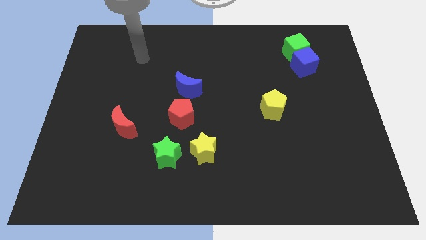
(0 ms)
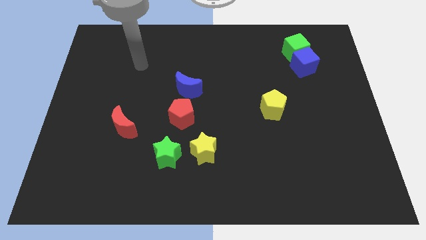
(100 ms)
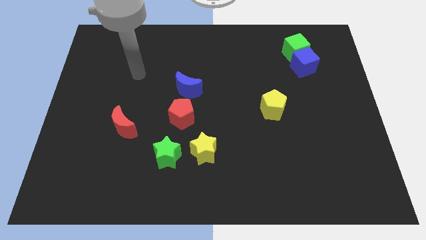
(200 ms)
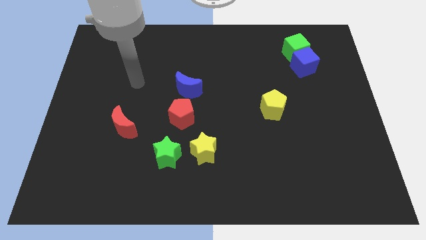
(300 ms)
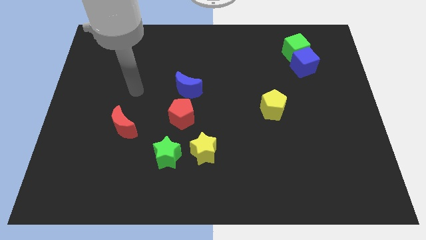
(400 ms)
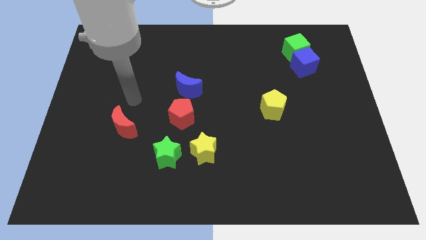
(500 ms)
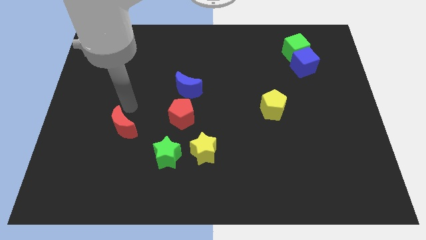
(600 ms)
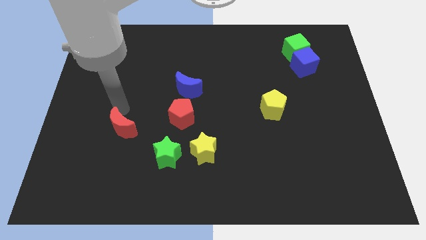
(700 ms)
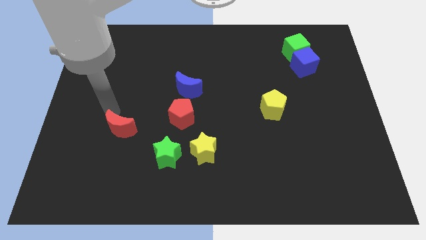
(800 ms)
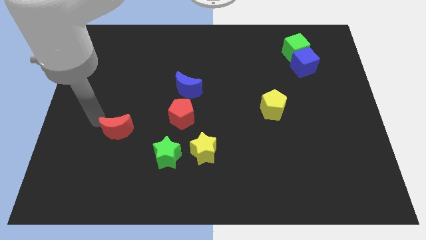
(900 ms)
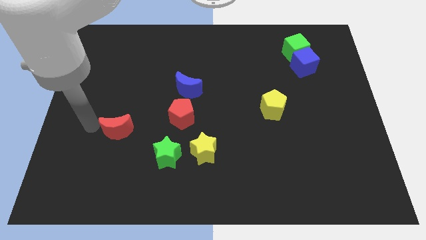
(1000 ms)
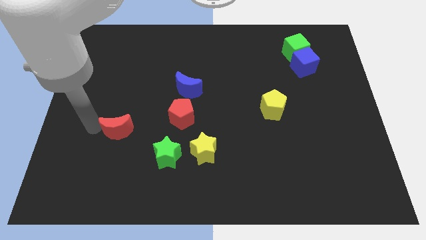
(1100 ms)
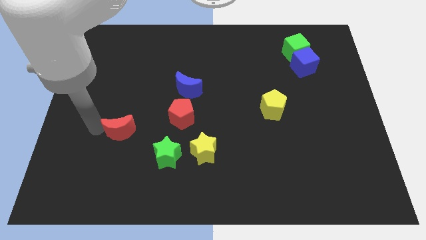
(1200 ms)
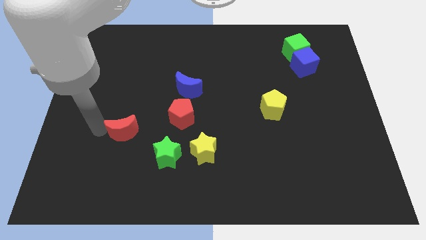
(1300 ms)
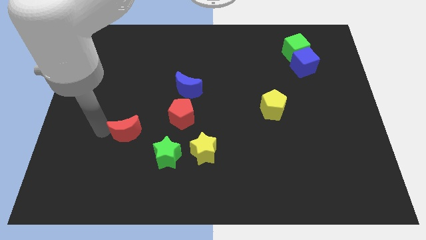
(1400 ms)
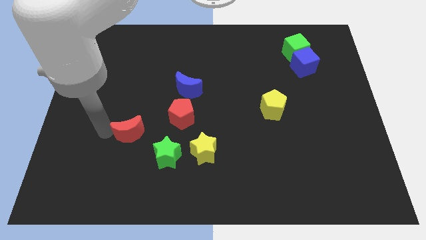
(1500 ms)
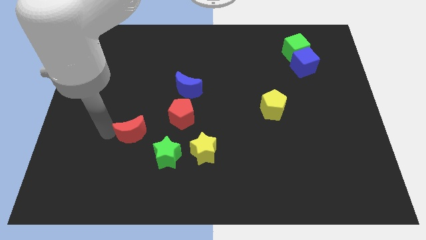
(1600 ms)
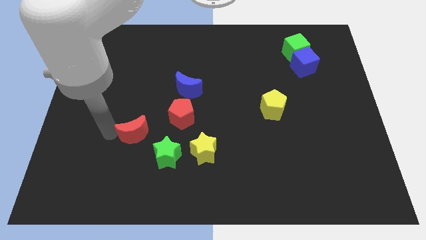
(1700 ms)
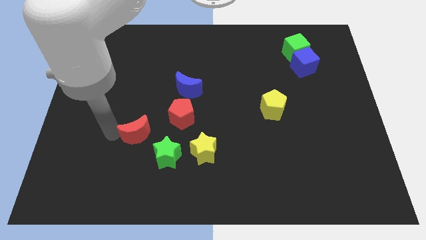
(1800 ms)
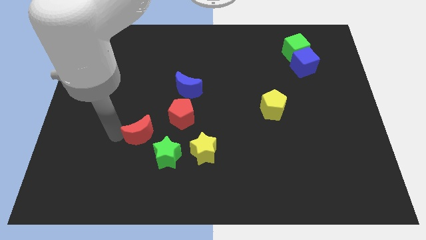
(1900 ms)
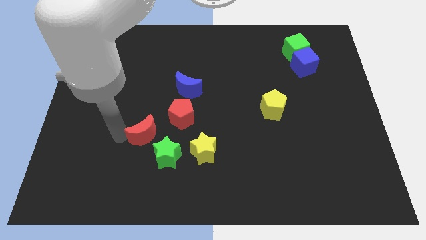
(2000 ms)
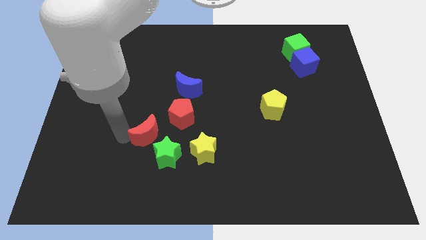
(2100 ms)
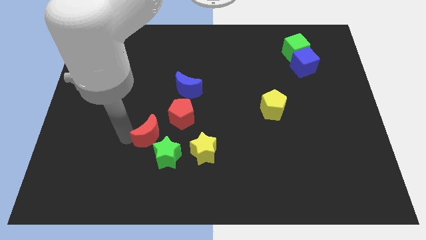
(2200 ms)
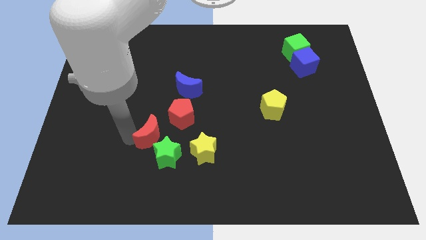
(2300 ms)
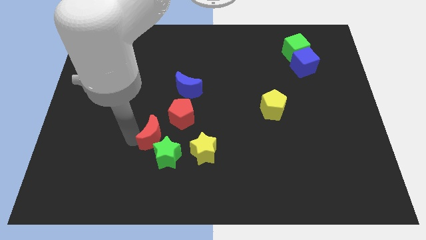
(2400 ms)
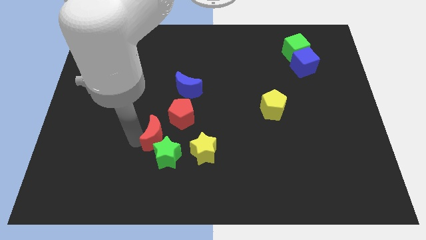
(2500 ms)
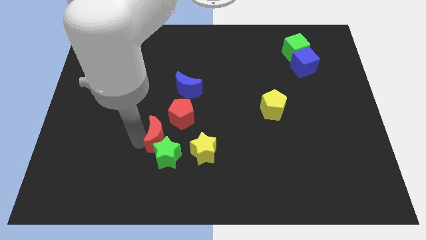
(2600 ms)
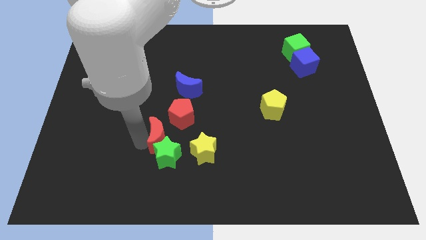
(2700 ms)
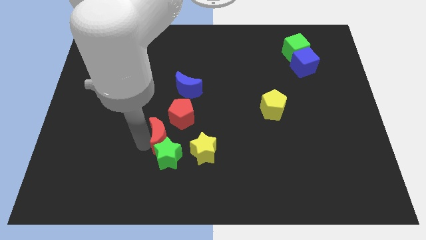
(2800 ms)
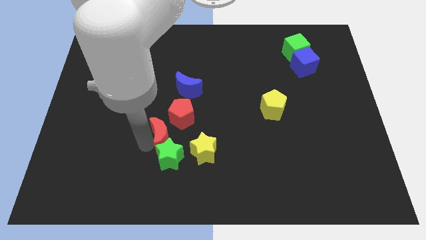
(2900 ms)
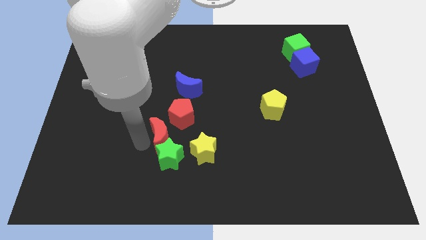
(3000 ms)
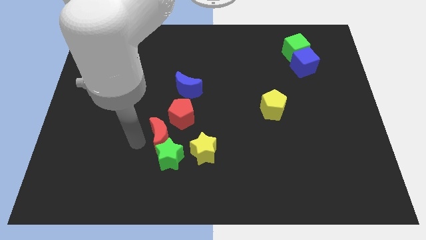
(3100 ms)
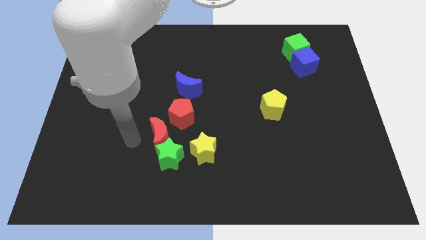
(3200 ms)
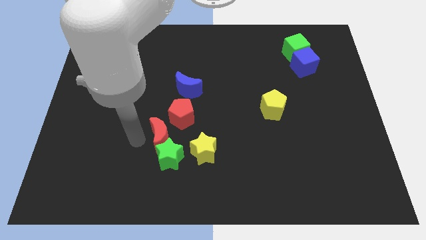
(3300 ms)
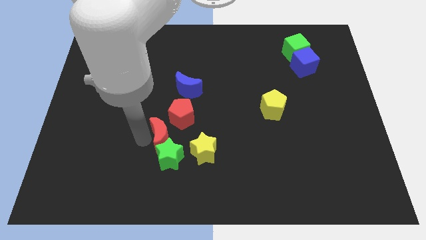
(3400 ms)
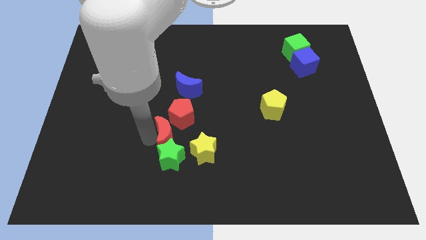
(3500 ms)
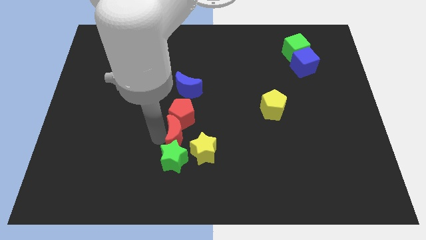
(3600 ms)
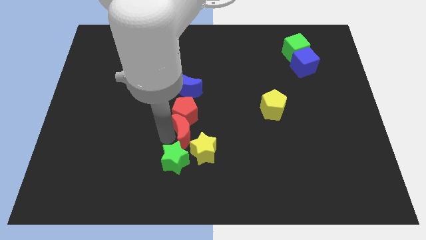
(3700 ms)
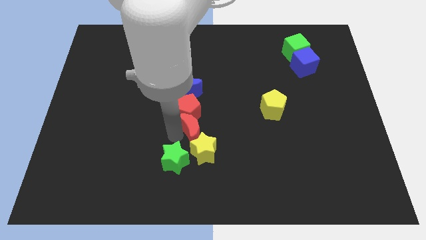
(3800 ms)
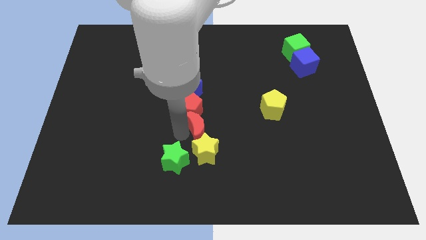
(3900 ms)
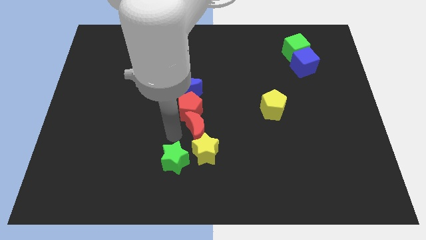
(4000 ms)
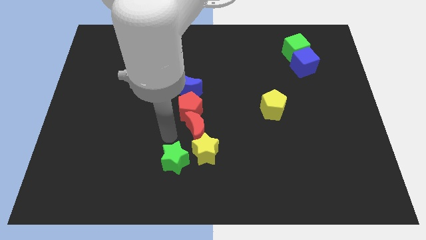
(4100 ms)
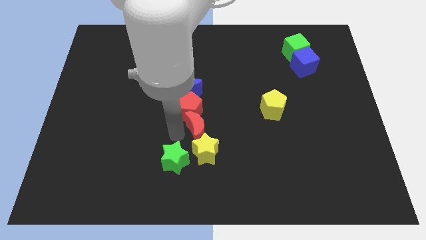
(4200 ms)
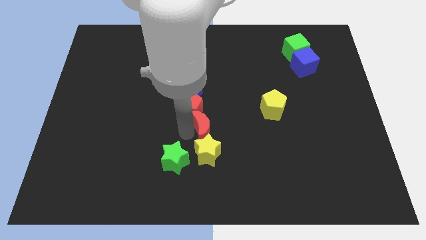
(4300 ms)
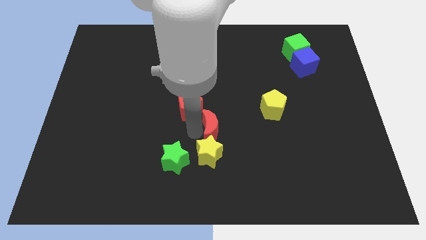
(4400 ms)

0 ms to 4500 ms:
move the red moon to the right

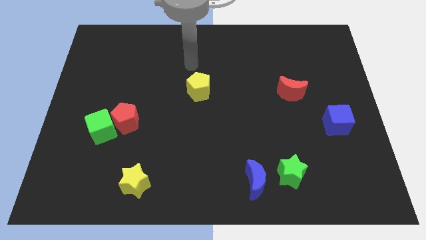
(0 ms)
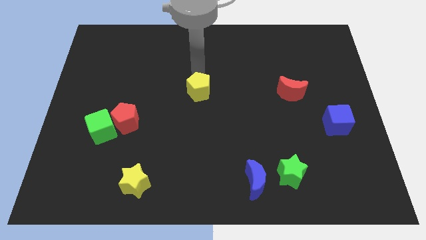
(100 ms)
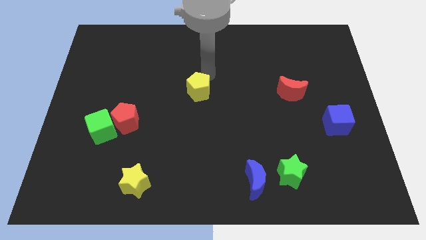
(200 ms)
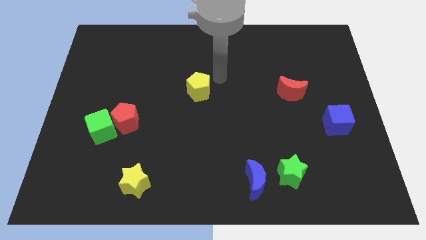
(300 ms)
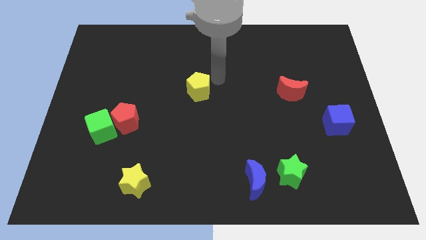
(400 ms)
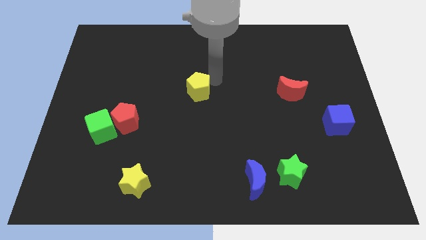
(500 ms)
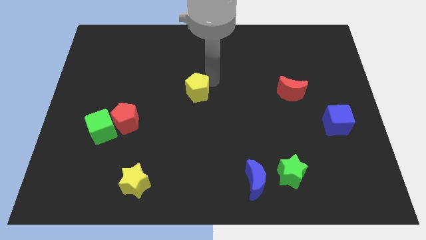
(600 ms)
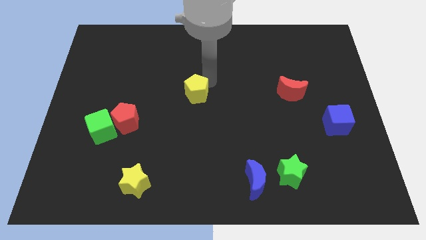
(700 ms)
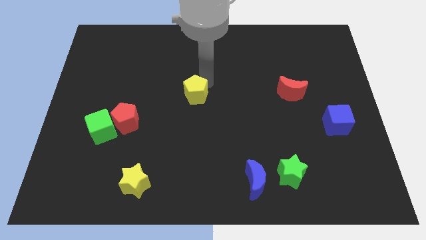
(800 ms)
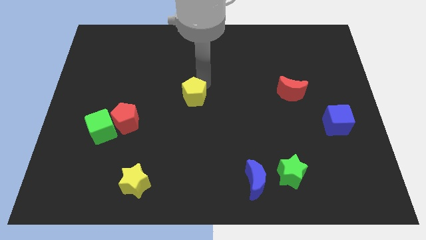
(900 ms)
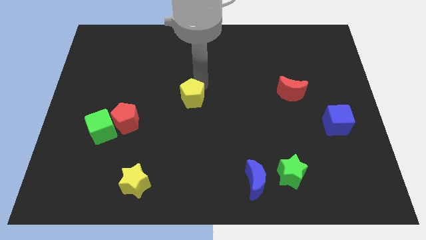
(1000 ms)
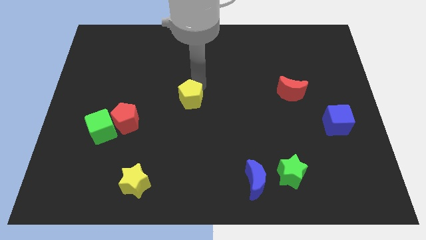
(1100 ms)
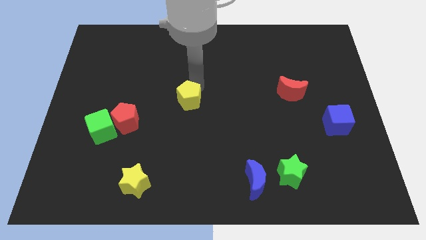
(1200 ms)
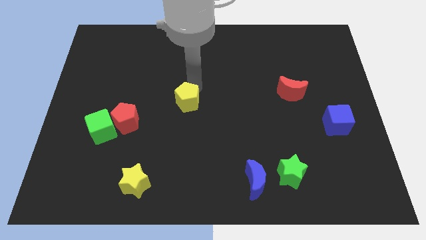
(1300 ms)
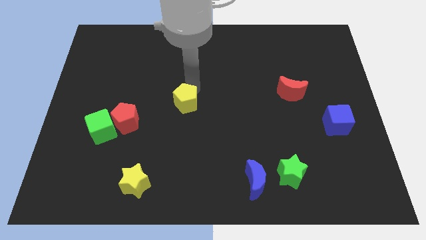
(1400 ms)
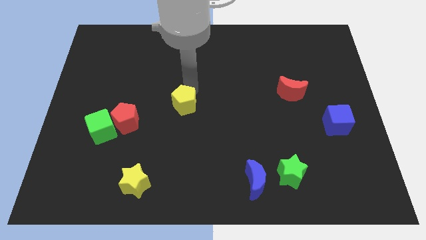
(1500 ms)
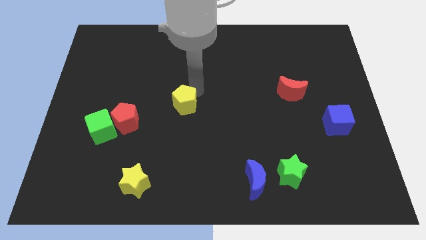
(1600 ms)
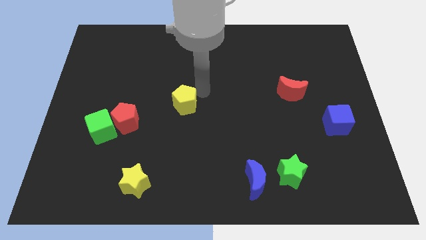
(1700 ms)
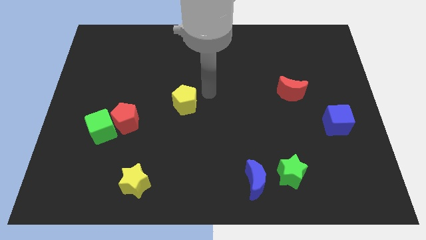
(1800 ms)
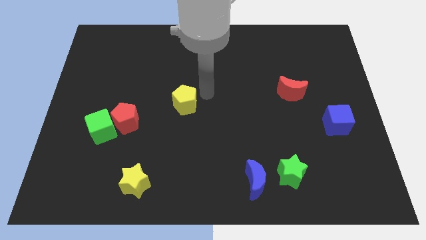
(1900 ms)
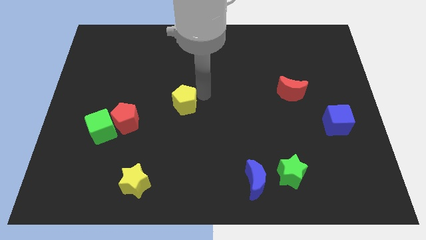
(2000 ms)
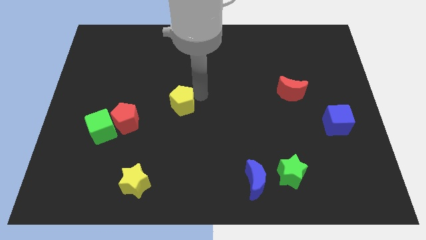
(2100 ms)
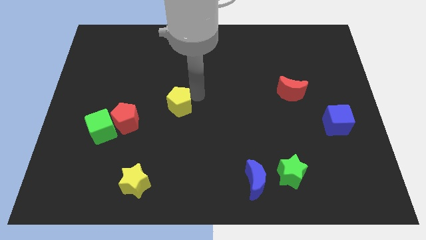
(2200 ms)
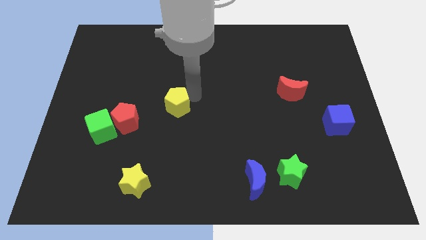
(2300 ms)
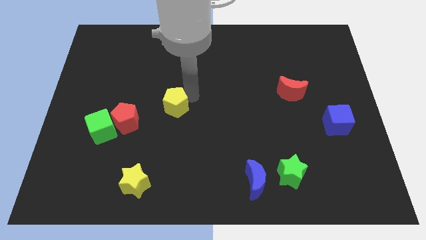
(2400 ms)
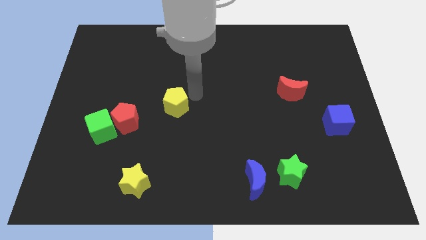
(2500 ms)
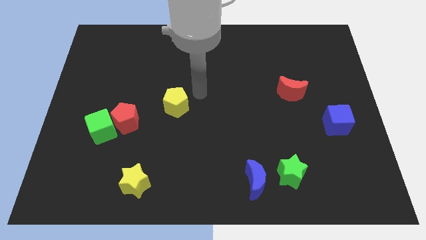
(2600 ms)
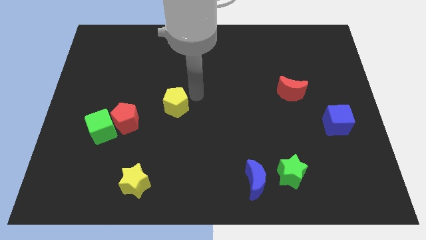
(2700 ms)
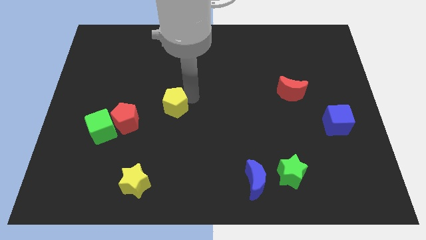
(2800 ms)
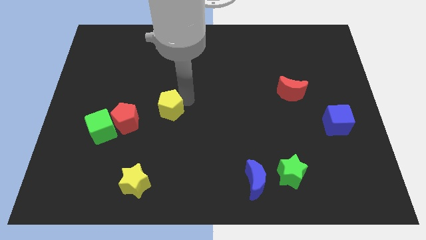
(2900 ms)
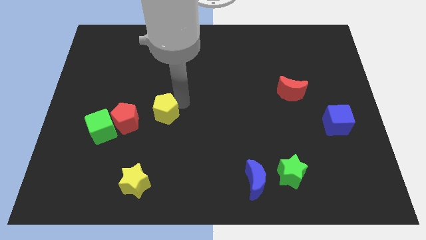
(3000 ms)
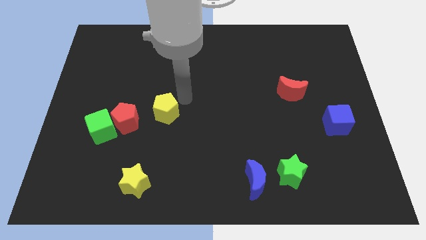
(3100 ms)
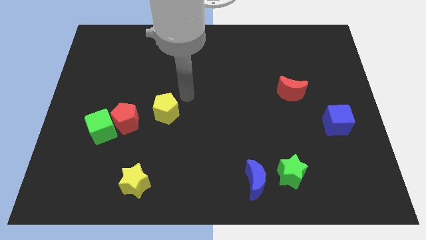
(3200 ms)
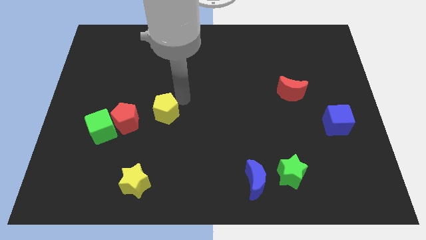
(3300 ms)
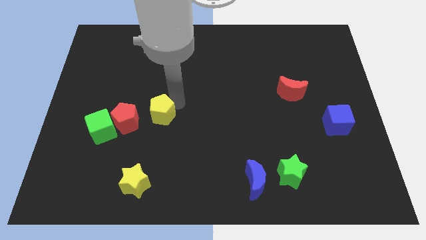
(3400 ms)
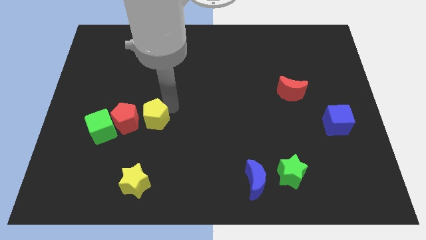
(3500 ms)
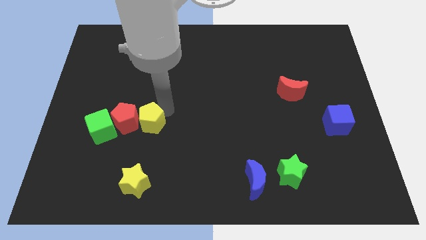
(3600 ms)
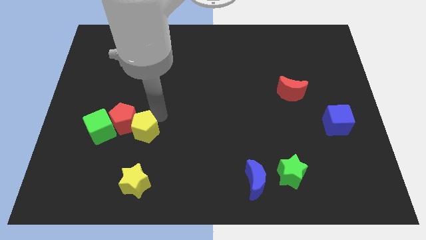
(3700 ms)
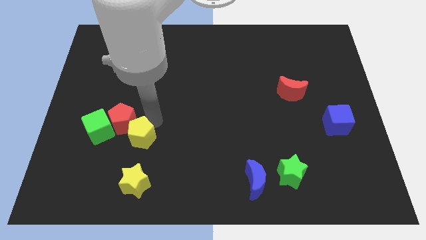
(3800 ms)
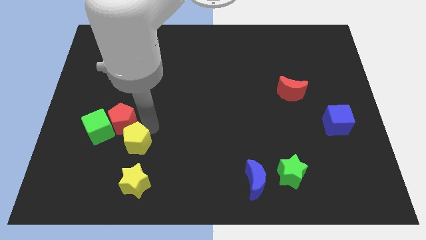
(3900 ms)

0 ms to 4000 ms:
slide the yellow pentagon downwards and left

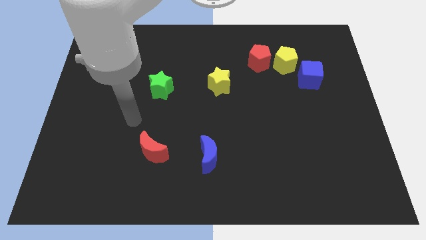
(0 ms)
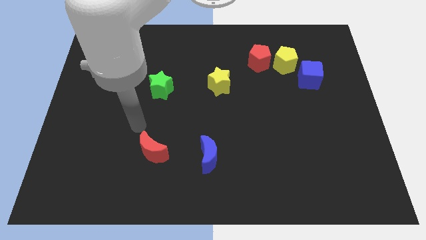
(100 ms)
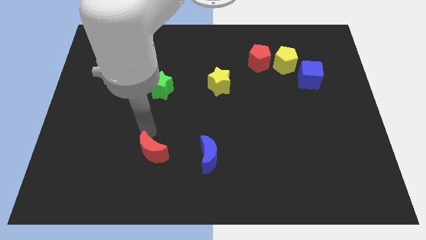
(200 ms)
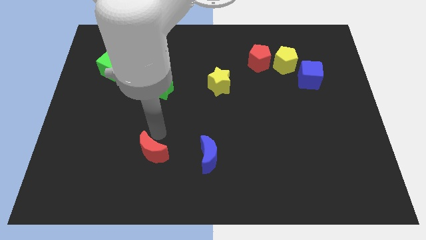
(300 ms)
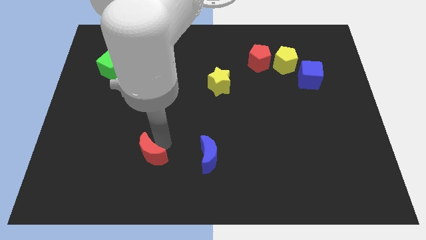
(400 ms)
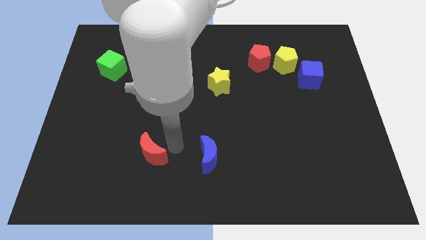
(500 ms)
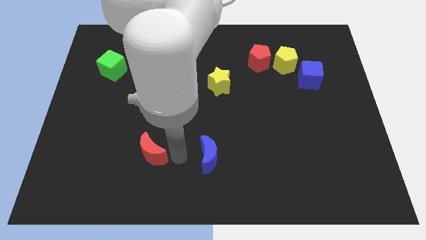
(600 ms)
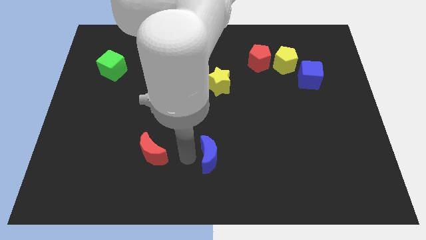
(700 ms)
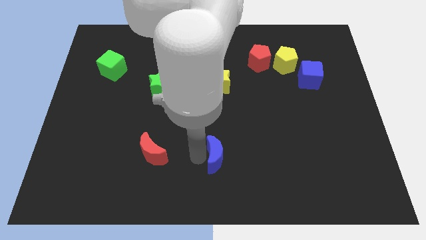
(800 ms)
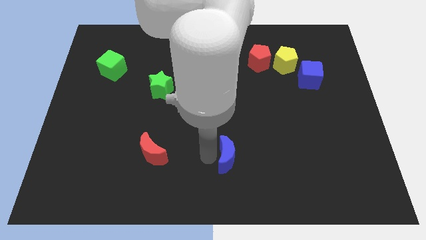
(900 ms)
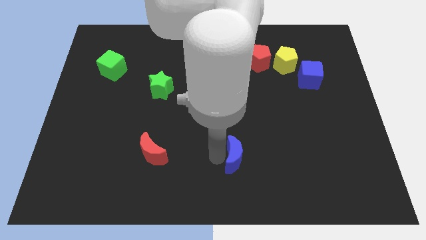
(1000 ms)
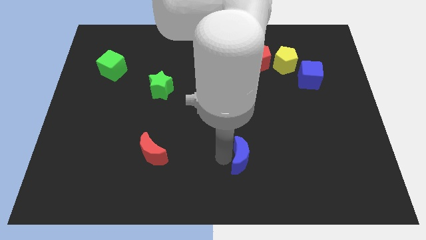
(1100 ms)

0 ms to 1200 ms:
slide the blue moon slightly to the right
